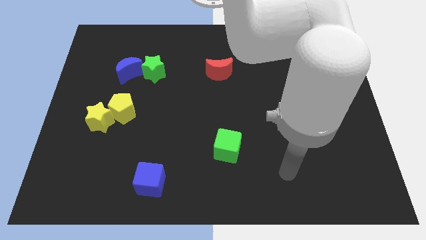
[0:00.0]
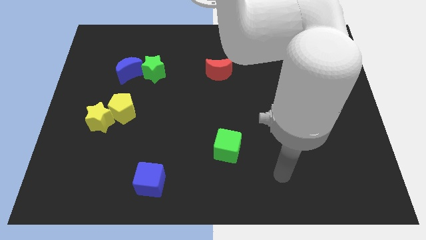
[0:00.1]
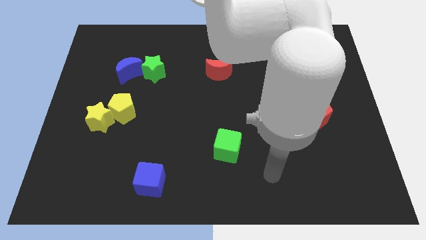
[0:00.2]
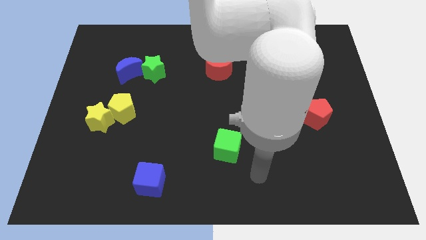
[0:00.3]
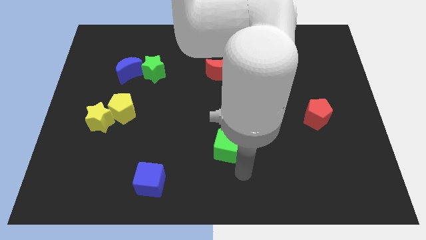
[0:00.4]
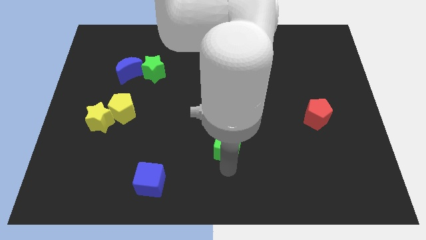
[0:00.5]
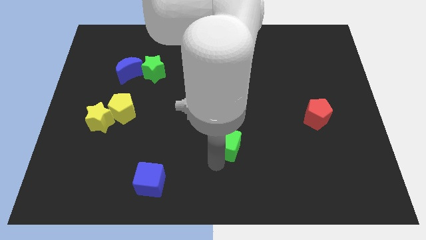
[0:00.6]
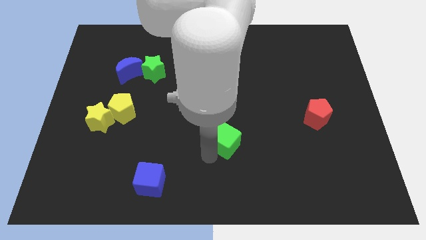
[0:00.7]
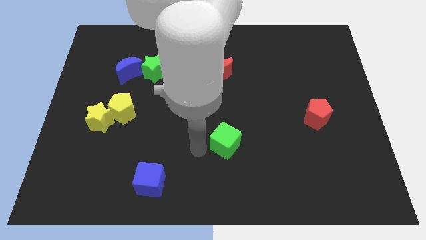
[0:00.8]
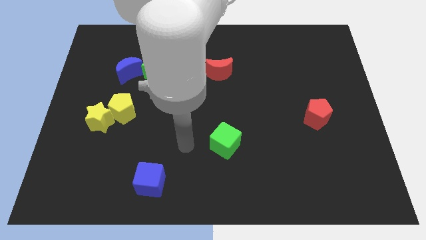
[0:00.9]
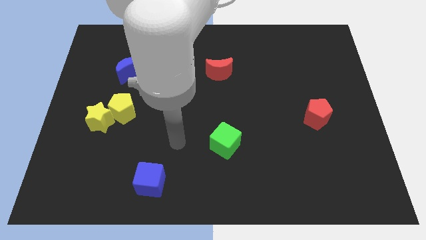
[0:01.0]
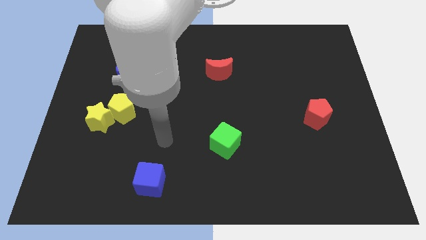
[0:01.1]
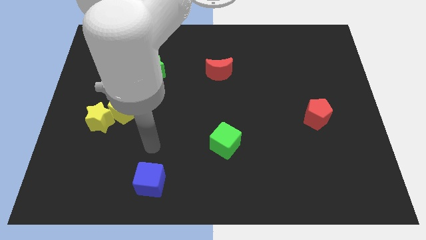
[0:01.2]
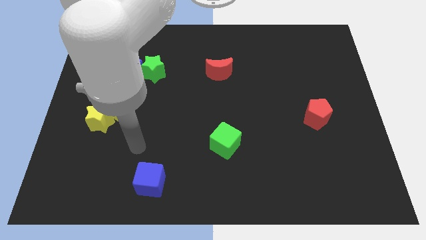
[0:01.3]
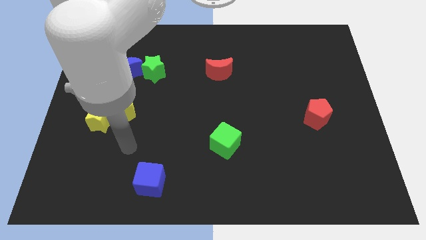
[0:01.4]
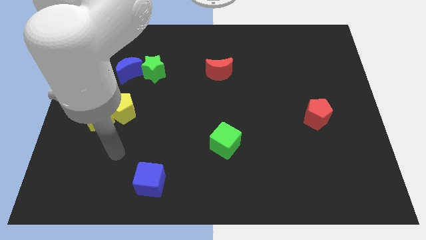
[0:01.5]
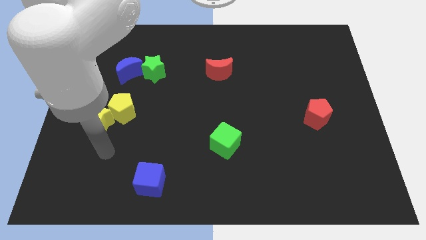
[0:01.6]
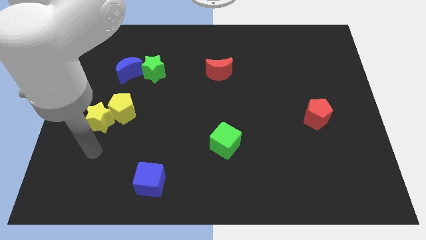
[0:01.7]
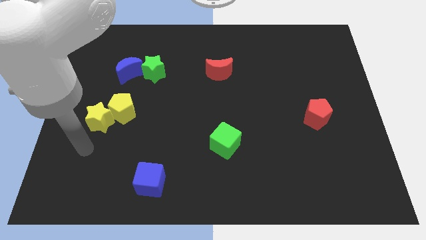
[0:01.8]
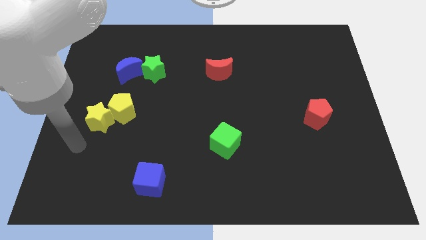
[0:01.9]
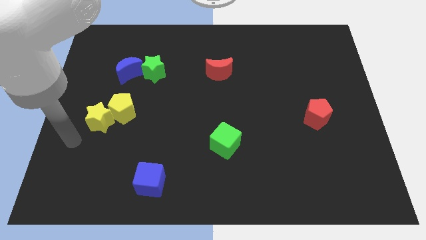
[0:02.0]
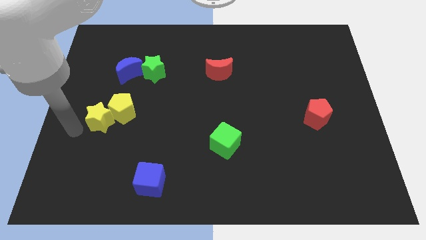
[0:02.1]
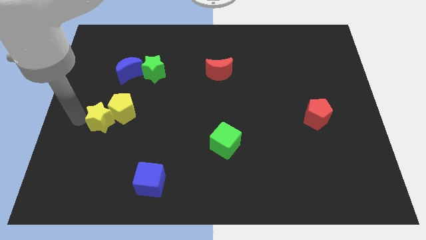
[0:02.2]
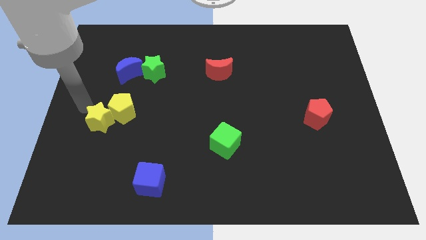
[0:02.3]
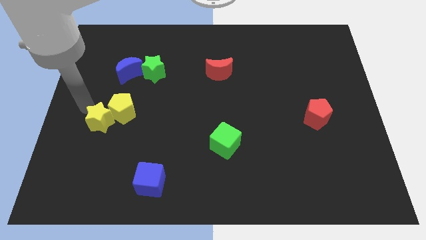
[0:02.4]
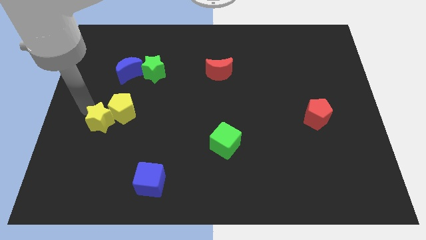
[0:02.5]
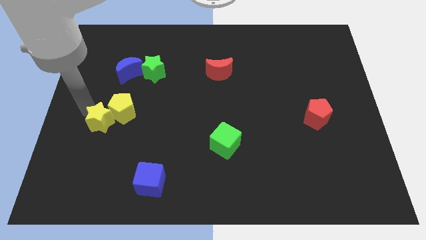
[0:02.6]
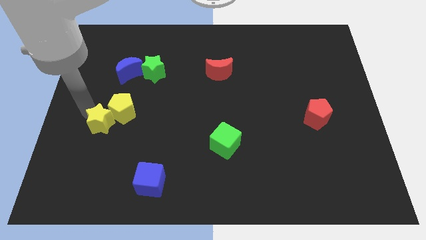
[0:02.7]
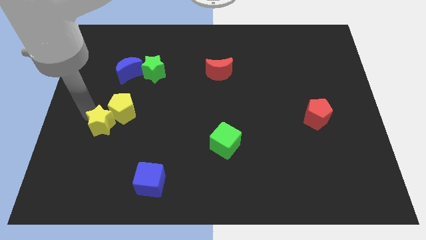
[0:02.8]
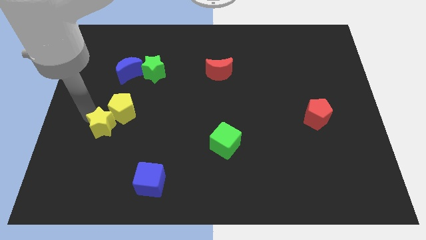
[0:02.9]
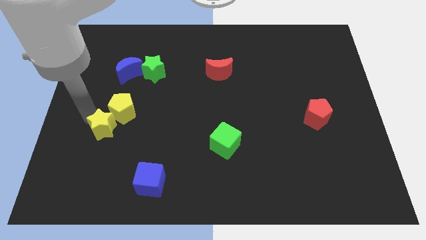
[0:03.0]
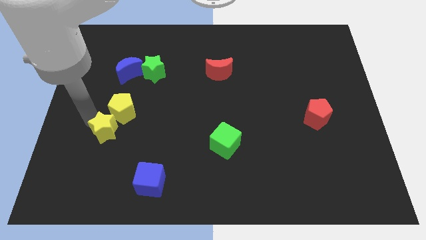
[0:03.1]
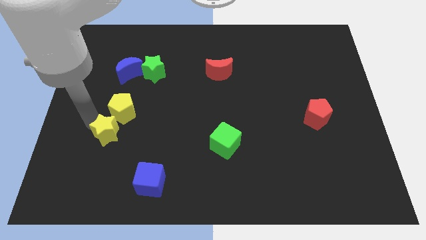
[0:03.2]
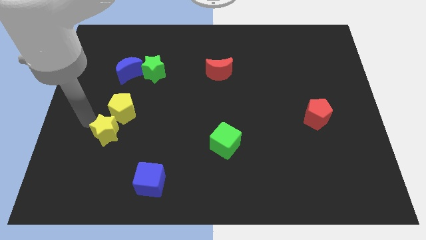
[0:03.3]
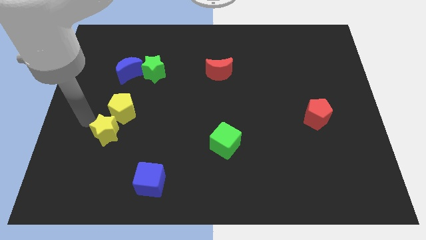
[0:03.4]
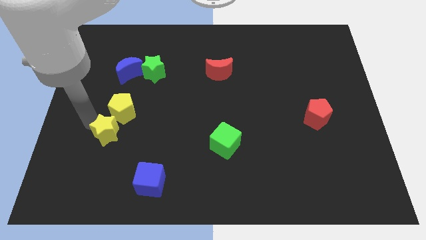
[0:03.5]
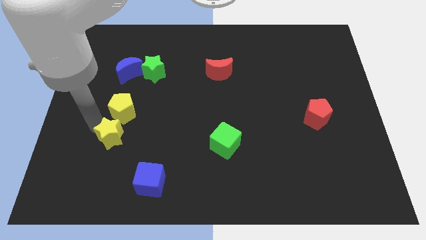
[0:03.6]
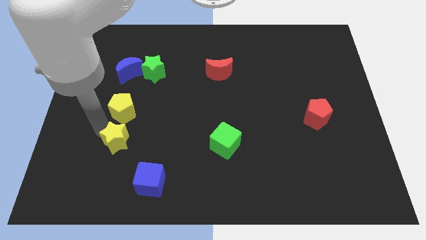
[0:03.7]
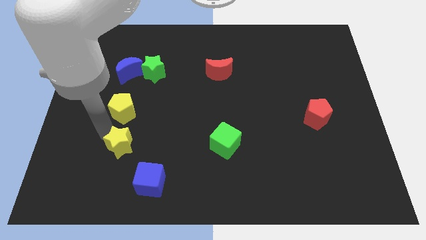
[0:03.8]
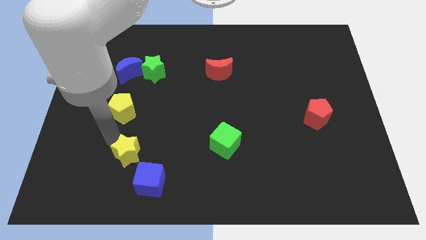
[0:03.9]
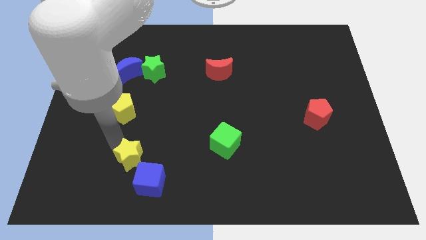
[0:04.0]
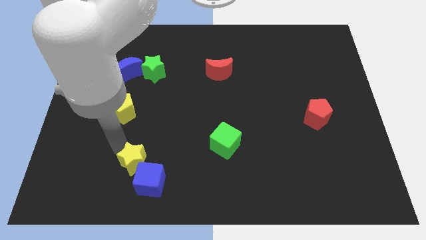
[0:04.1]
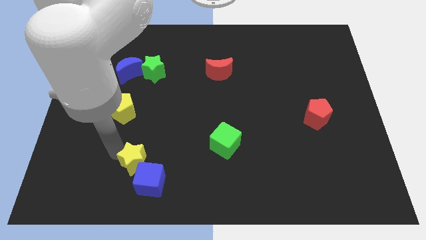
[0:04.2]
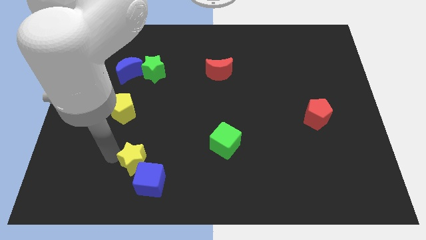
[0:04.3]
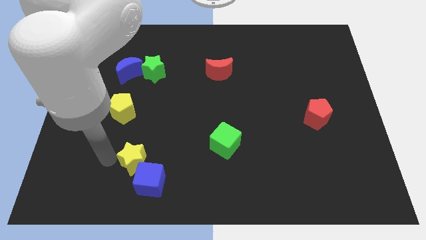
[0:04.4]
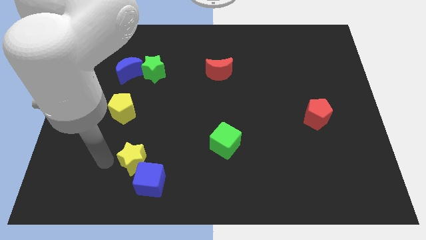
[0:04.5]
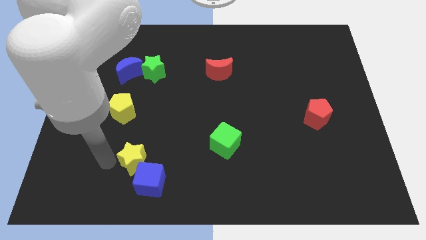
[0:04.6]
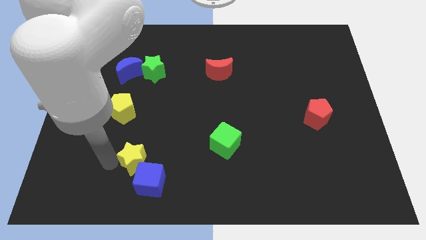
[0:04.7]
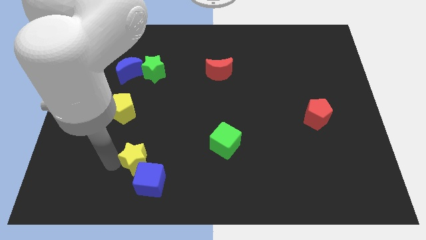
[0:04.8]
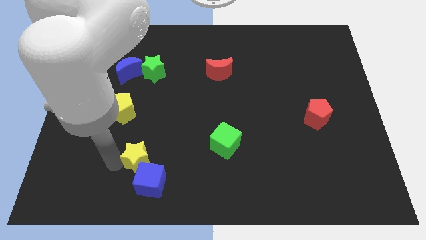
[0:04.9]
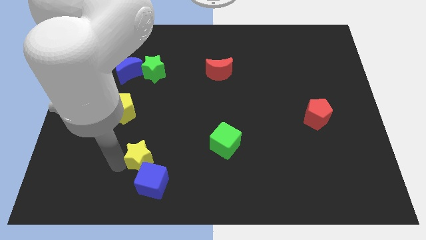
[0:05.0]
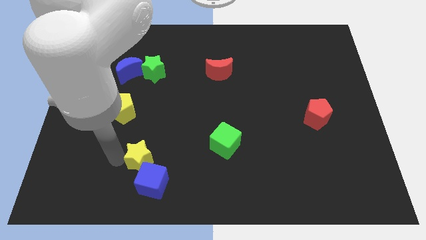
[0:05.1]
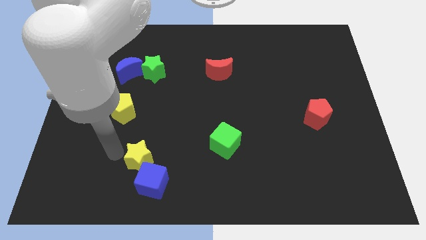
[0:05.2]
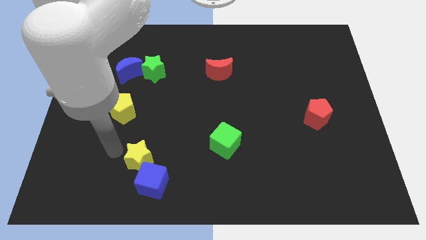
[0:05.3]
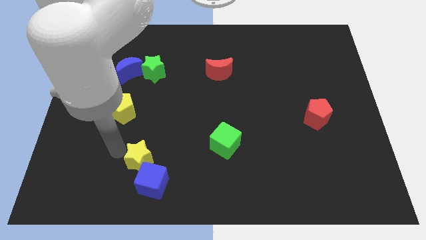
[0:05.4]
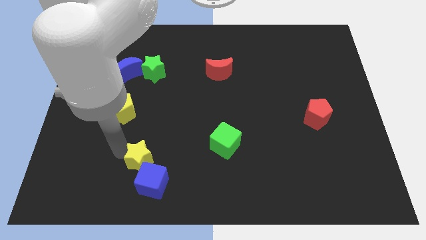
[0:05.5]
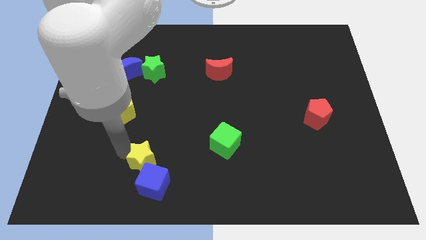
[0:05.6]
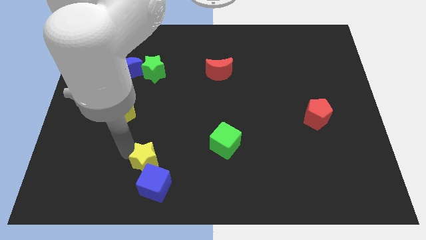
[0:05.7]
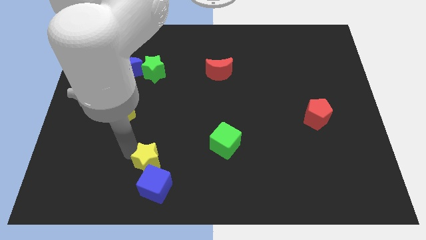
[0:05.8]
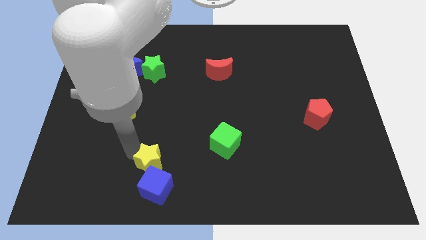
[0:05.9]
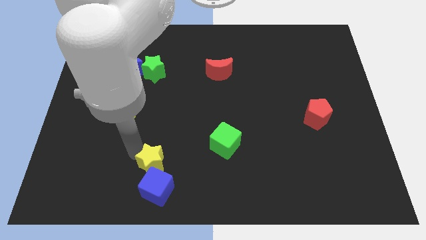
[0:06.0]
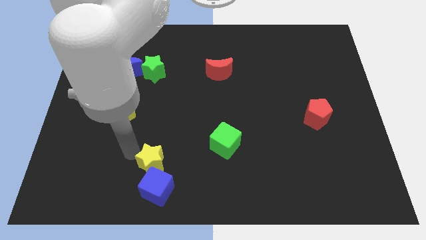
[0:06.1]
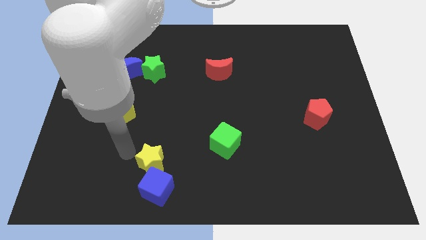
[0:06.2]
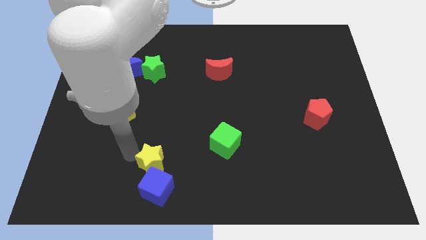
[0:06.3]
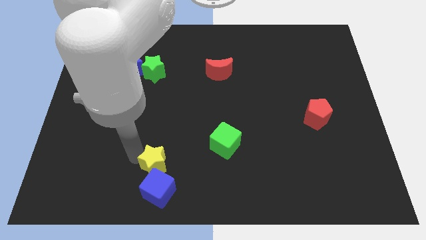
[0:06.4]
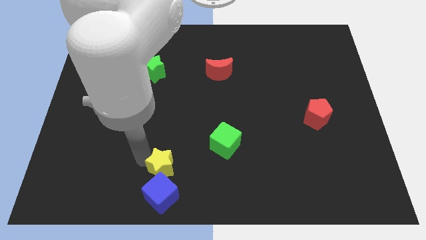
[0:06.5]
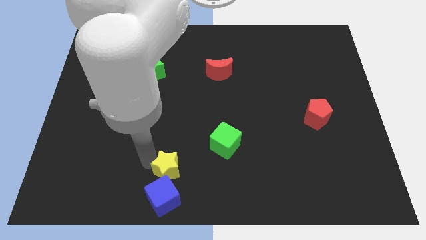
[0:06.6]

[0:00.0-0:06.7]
slide the yellow star to the bottom side
